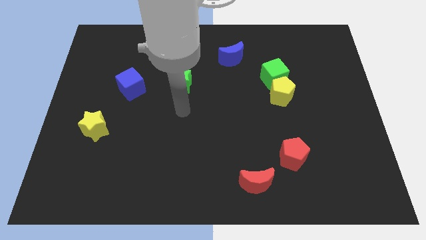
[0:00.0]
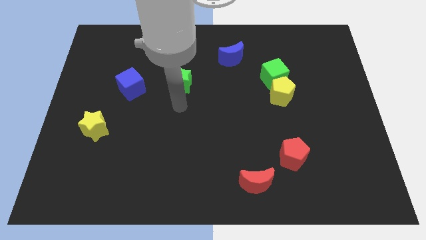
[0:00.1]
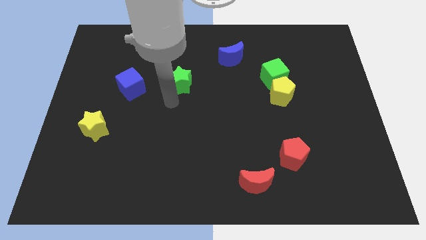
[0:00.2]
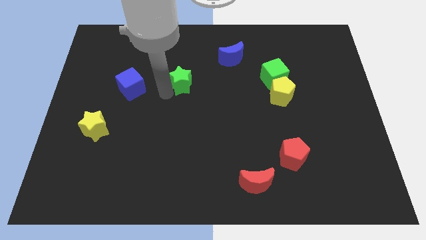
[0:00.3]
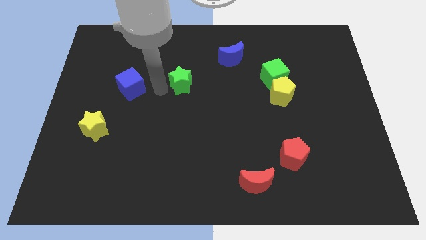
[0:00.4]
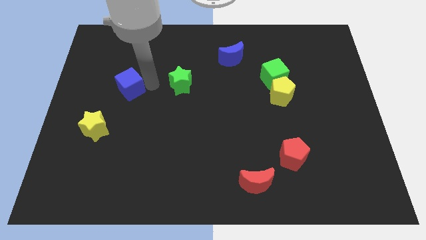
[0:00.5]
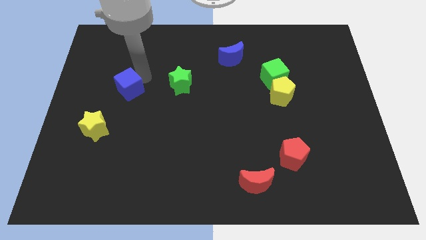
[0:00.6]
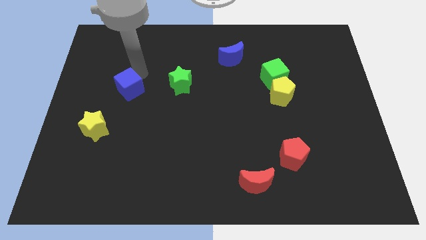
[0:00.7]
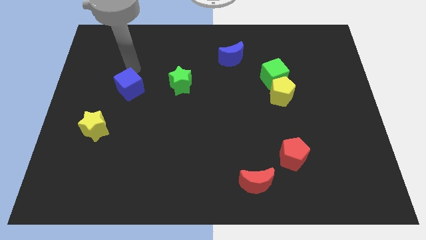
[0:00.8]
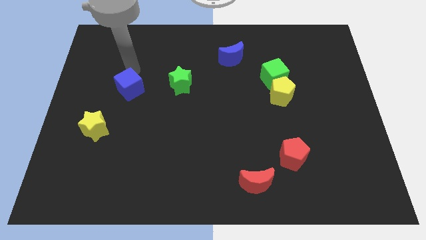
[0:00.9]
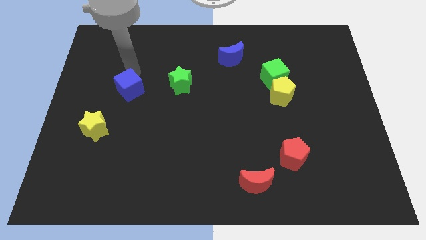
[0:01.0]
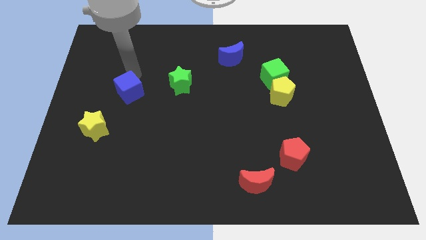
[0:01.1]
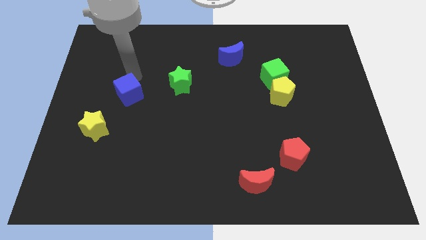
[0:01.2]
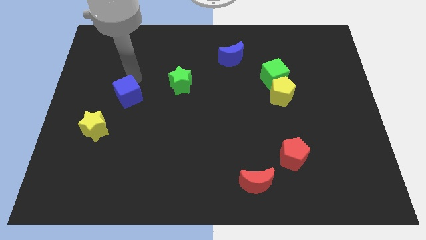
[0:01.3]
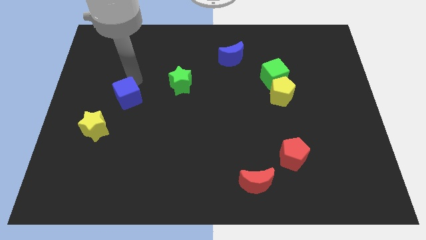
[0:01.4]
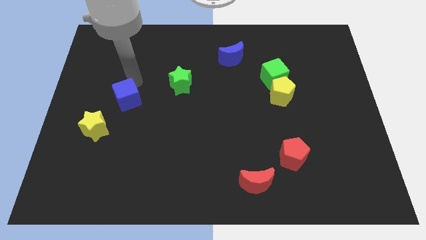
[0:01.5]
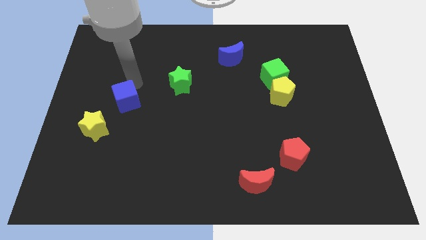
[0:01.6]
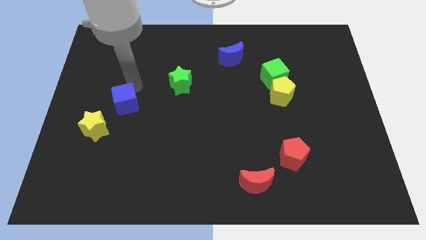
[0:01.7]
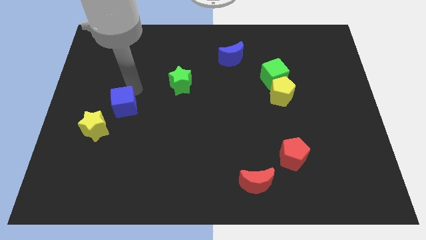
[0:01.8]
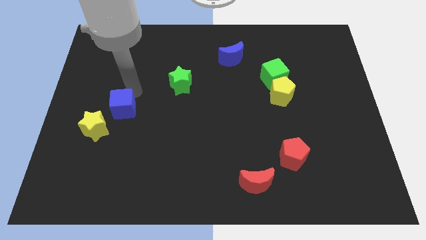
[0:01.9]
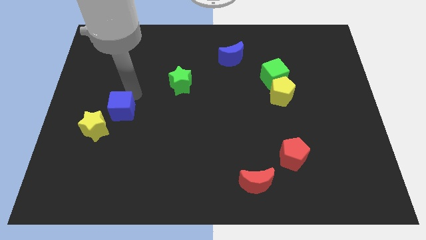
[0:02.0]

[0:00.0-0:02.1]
move the blue cube somewhat downwards

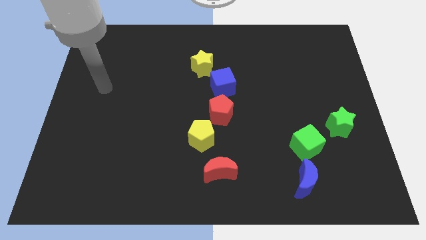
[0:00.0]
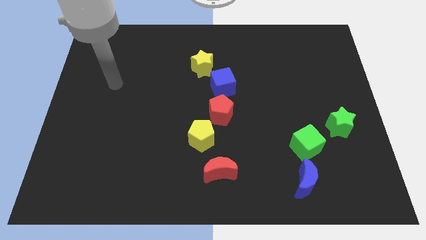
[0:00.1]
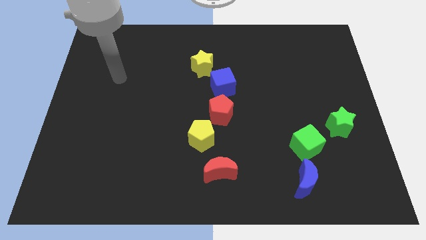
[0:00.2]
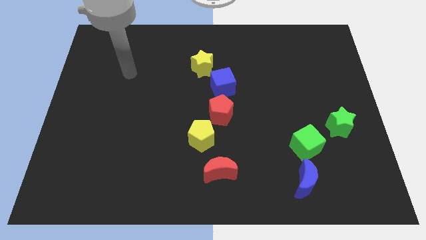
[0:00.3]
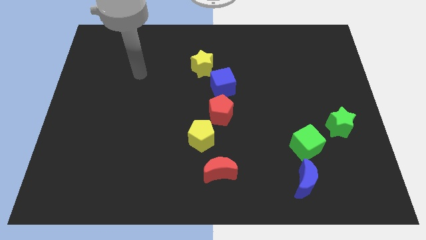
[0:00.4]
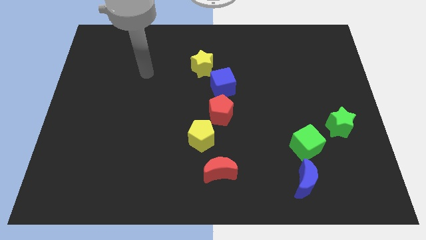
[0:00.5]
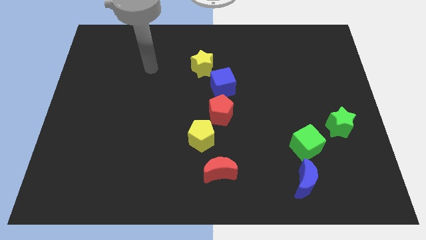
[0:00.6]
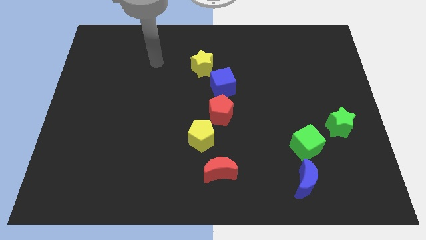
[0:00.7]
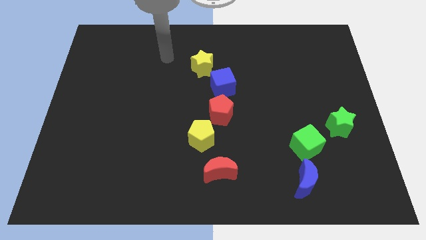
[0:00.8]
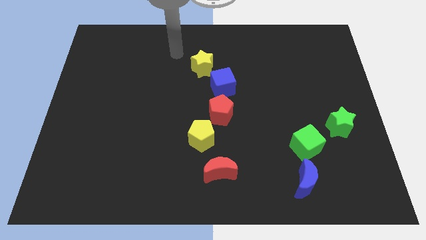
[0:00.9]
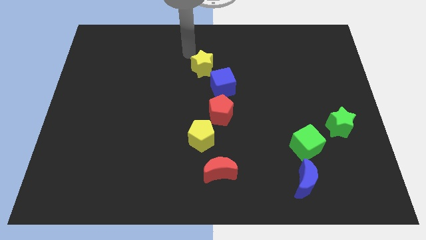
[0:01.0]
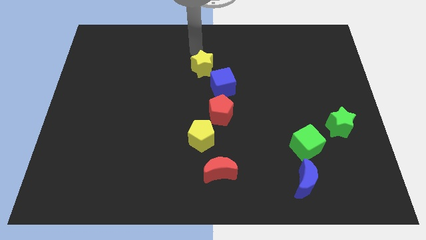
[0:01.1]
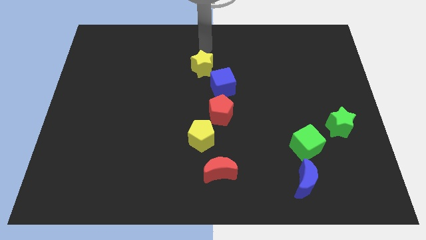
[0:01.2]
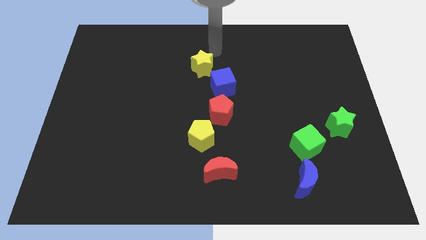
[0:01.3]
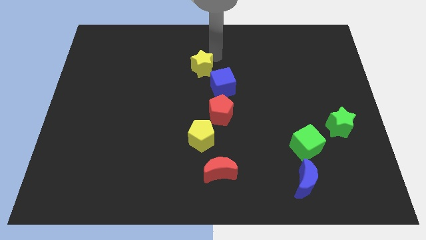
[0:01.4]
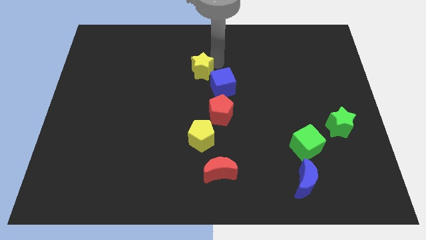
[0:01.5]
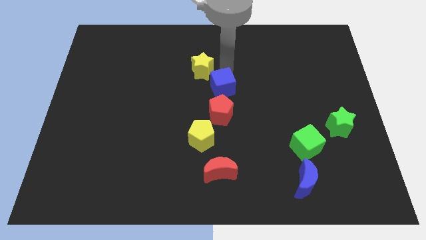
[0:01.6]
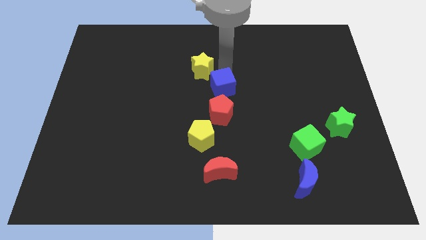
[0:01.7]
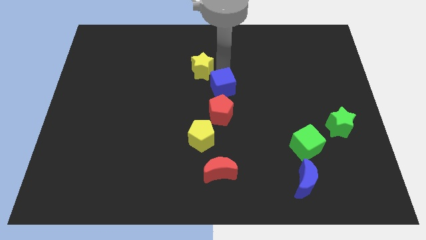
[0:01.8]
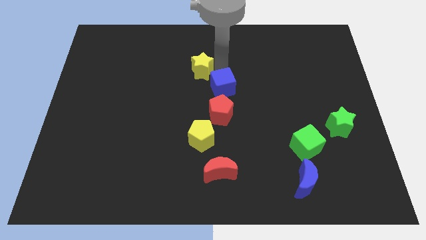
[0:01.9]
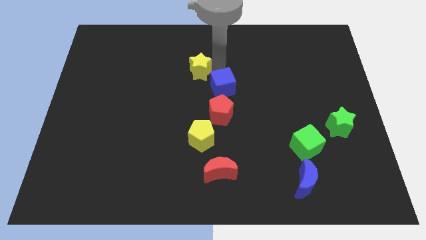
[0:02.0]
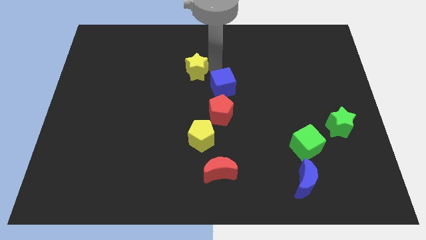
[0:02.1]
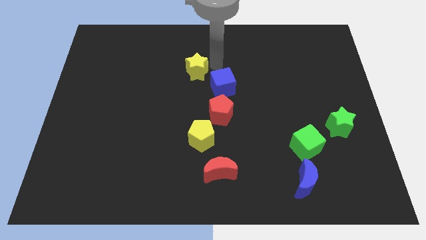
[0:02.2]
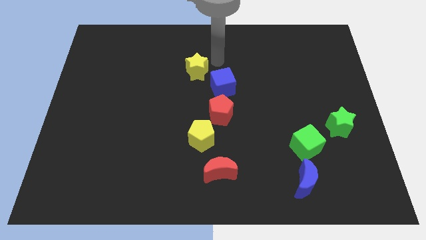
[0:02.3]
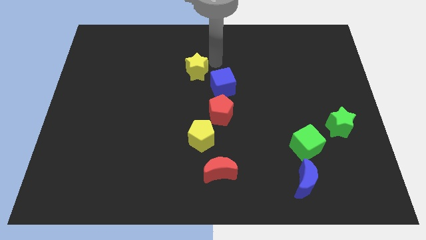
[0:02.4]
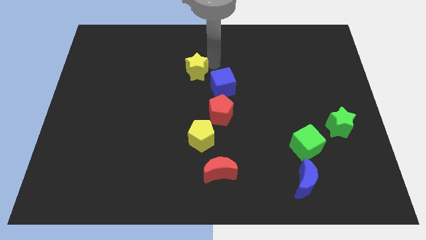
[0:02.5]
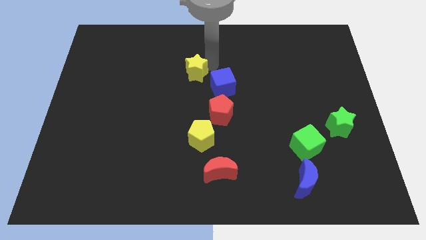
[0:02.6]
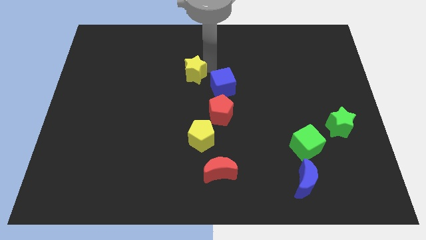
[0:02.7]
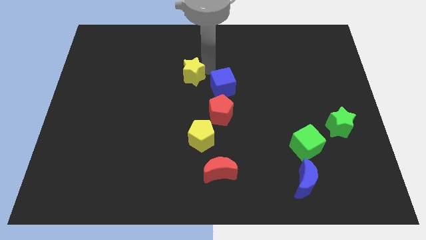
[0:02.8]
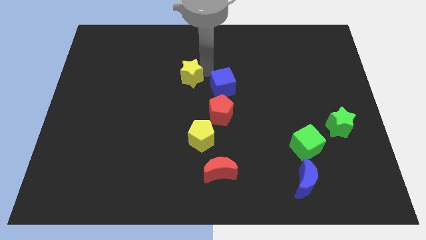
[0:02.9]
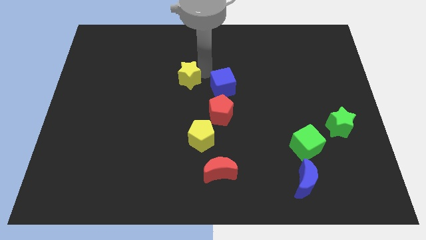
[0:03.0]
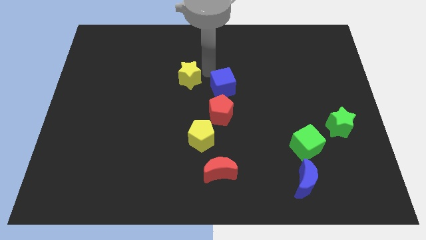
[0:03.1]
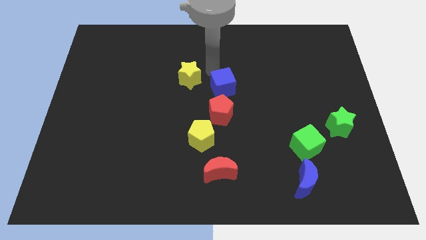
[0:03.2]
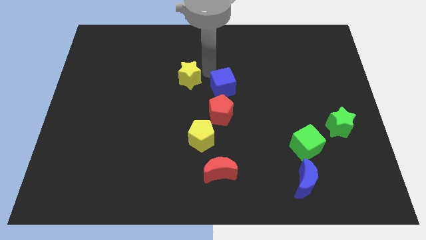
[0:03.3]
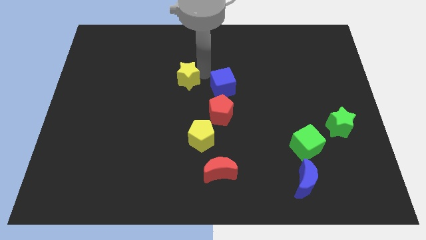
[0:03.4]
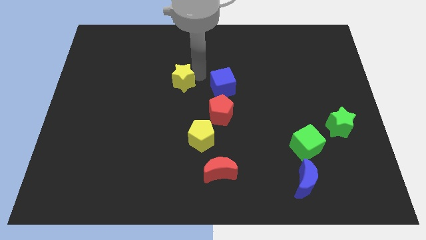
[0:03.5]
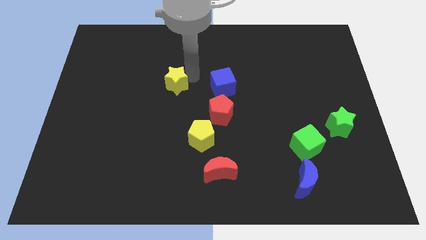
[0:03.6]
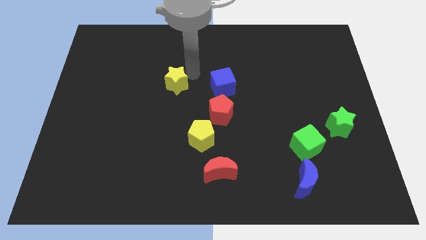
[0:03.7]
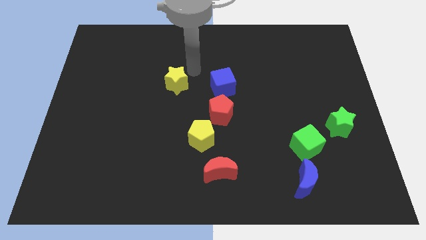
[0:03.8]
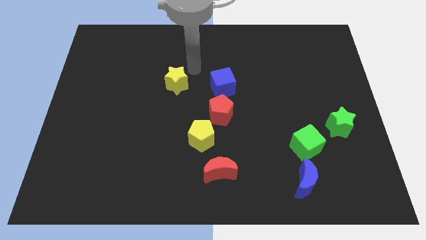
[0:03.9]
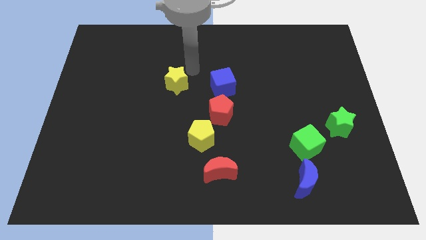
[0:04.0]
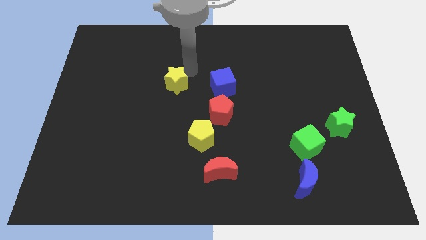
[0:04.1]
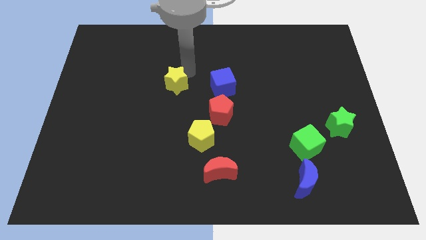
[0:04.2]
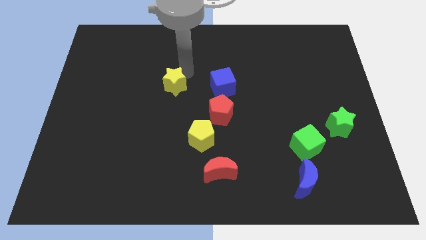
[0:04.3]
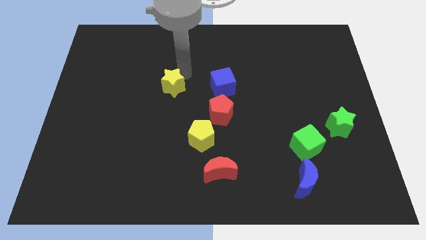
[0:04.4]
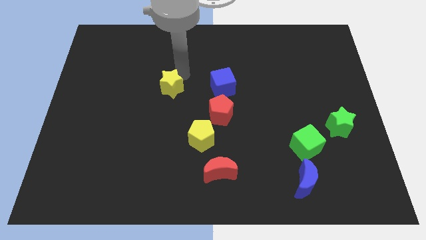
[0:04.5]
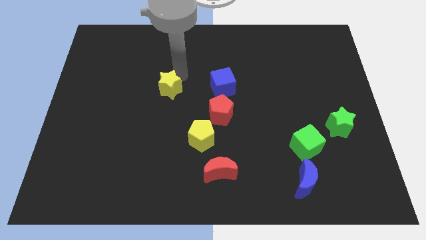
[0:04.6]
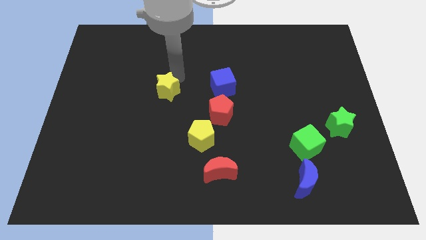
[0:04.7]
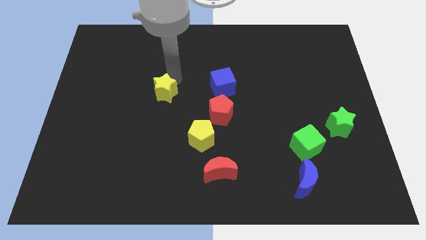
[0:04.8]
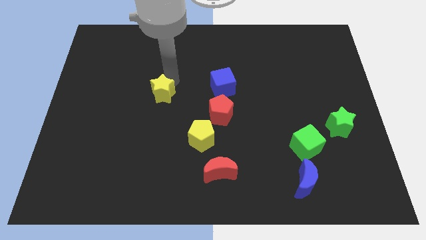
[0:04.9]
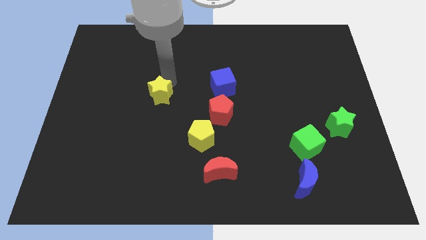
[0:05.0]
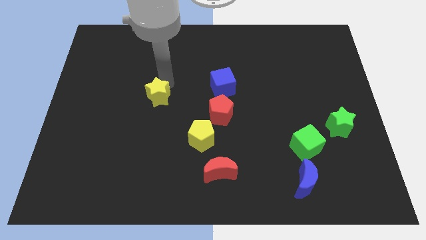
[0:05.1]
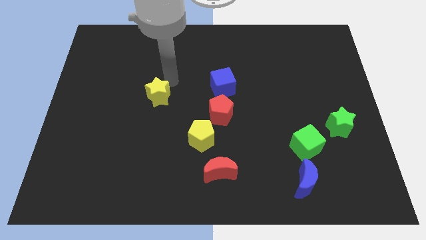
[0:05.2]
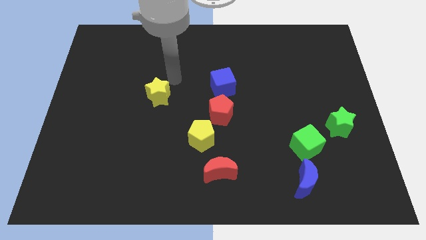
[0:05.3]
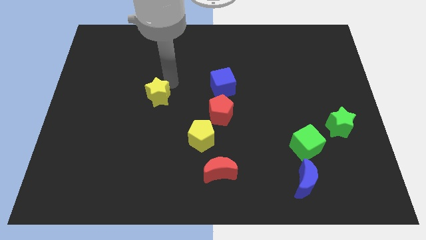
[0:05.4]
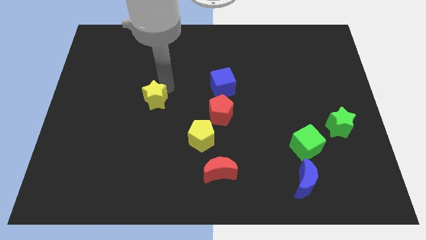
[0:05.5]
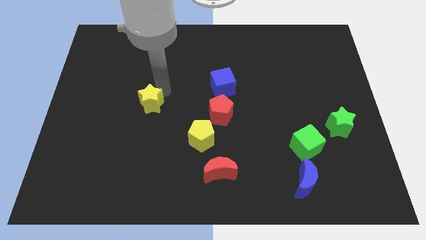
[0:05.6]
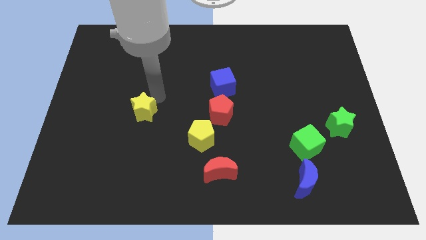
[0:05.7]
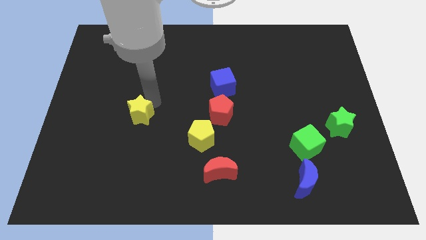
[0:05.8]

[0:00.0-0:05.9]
slide the yellow star downwards and then to the left

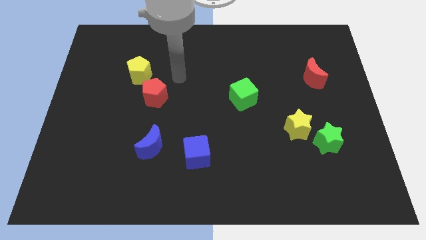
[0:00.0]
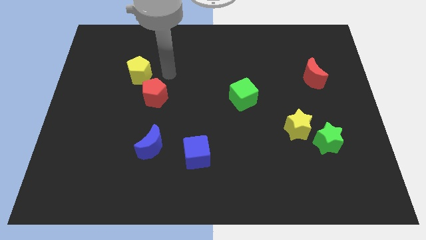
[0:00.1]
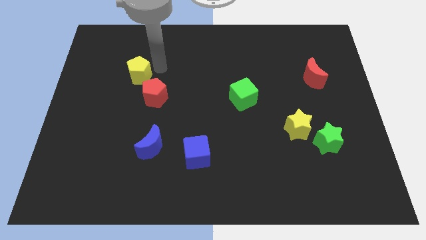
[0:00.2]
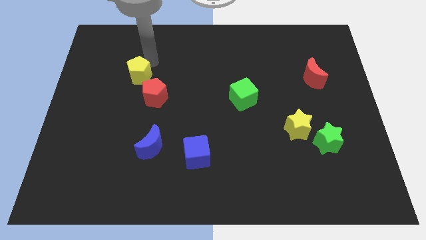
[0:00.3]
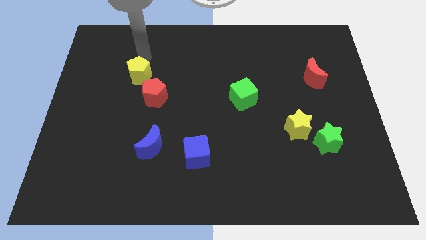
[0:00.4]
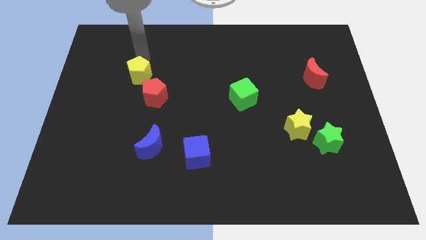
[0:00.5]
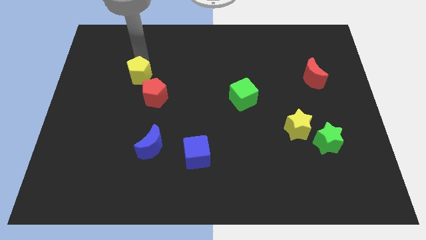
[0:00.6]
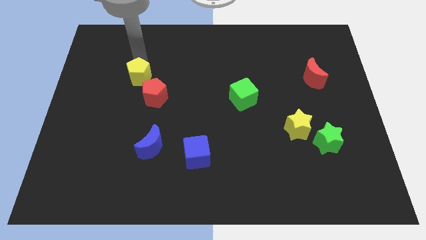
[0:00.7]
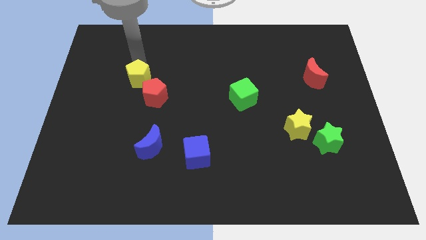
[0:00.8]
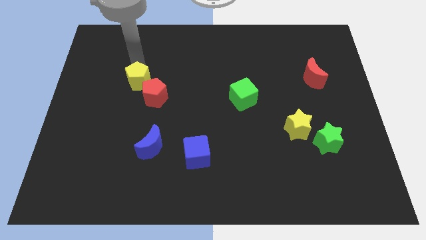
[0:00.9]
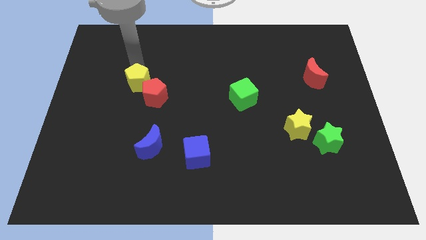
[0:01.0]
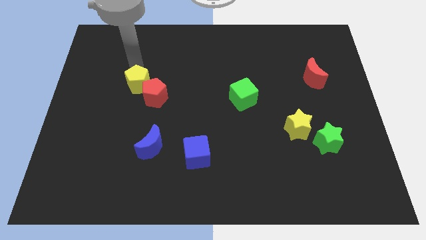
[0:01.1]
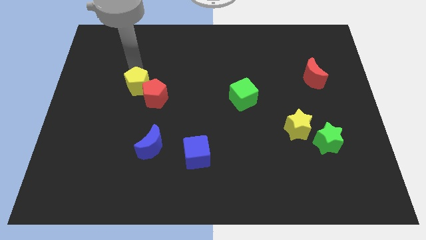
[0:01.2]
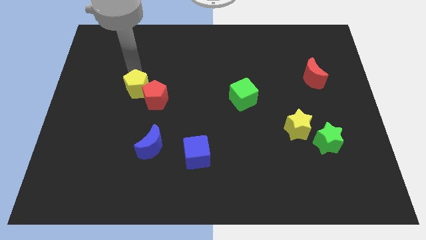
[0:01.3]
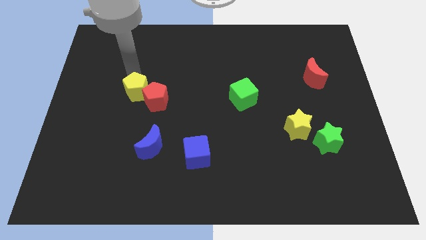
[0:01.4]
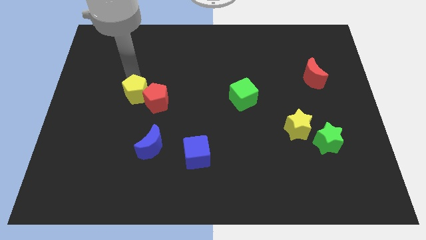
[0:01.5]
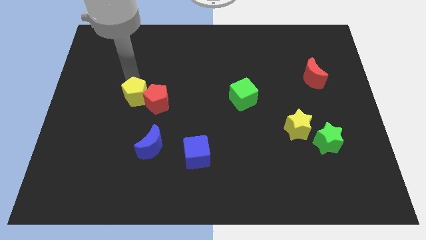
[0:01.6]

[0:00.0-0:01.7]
move the yellow pentagon a bit downwards
